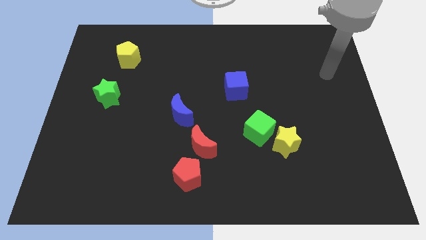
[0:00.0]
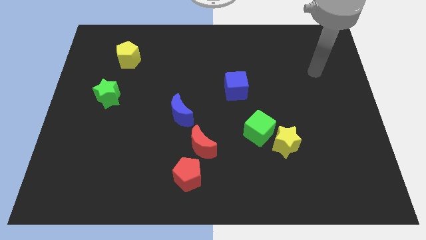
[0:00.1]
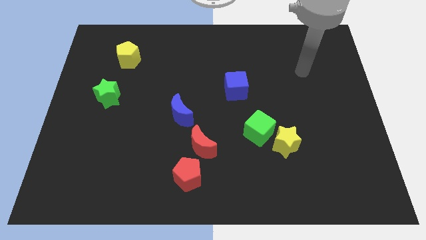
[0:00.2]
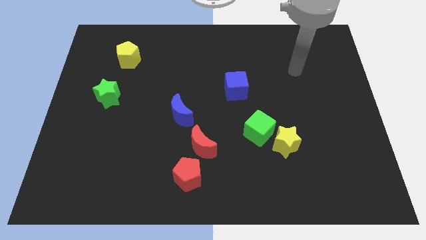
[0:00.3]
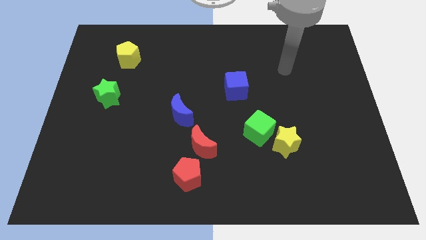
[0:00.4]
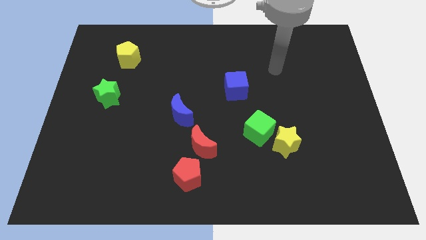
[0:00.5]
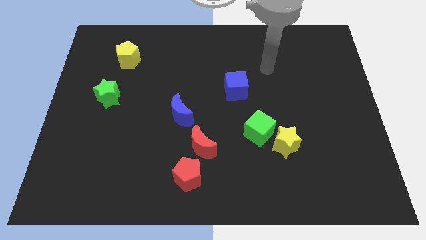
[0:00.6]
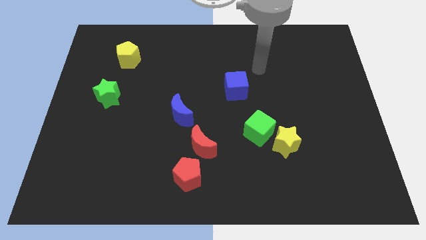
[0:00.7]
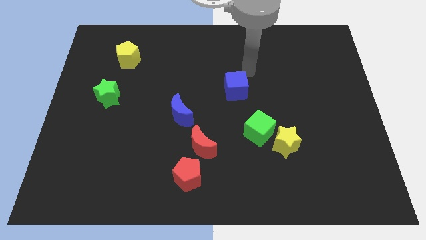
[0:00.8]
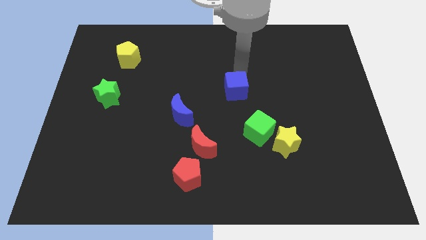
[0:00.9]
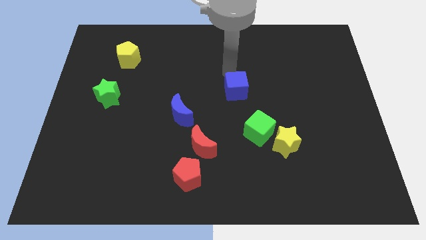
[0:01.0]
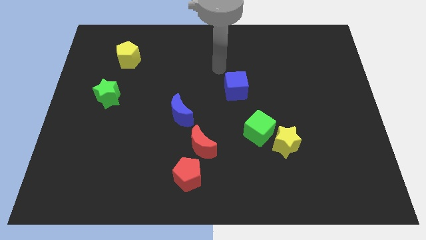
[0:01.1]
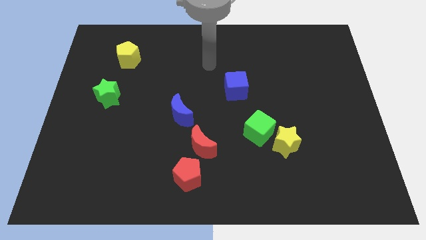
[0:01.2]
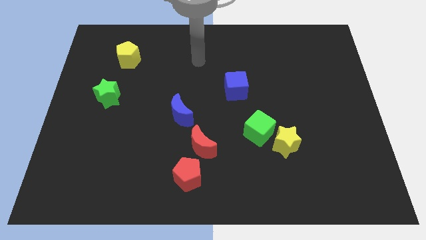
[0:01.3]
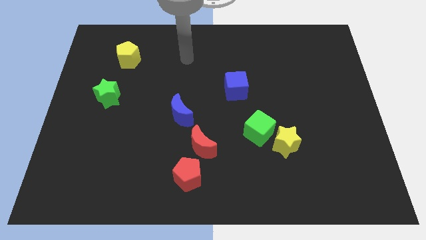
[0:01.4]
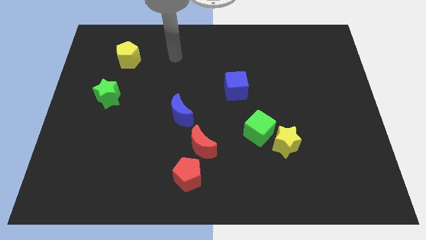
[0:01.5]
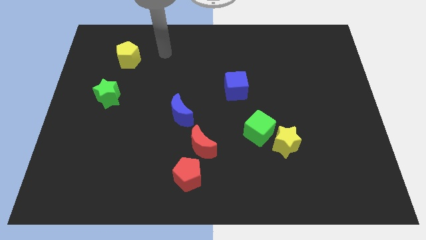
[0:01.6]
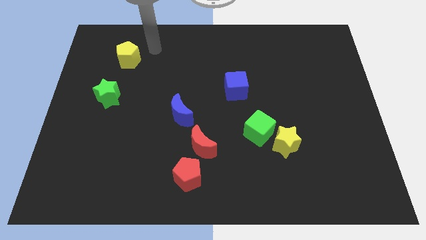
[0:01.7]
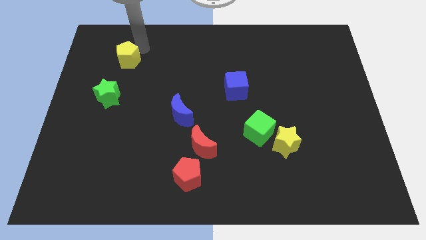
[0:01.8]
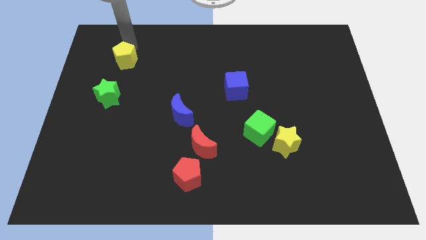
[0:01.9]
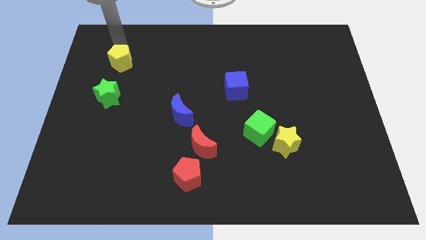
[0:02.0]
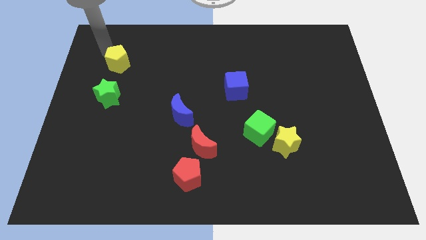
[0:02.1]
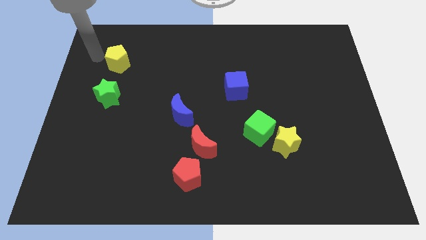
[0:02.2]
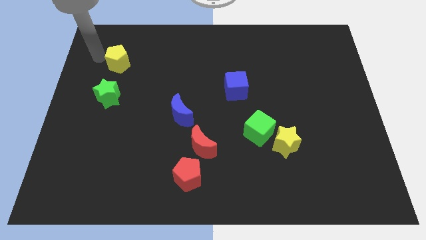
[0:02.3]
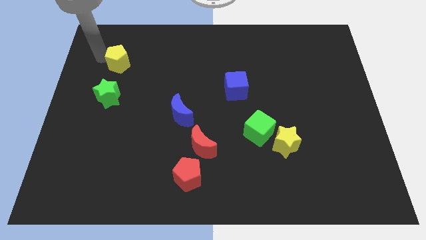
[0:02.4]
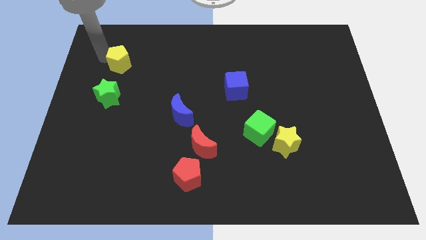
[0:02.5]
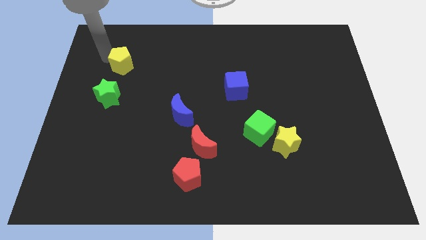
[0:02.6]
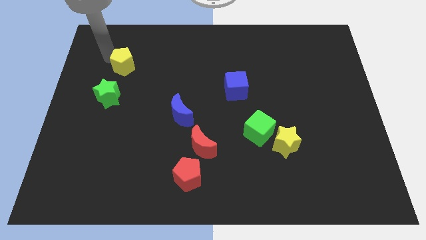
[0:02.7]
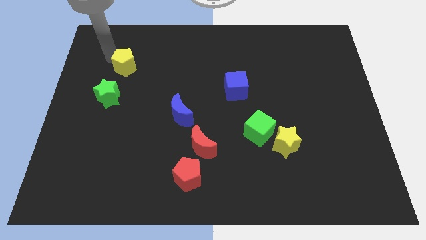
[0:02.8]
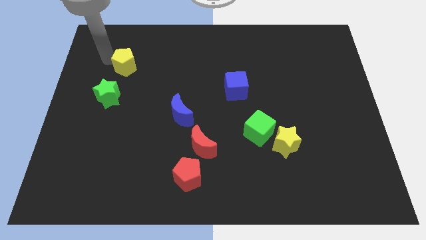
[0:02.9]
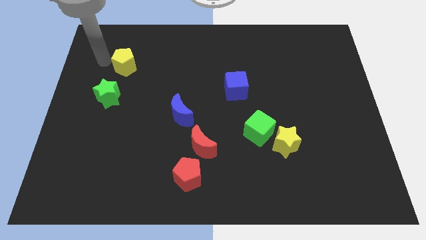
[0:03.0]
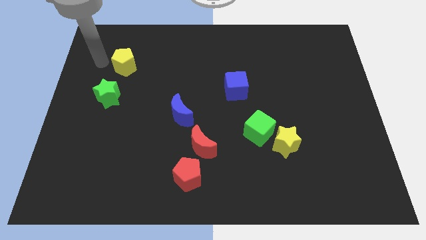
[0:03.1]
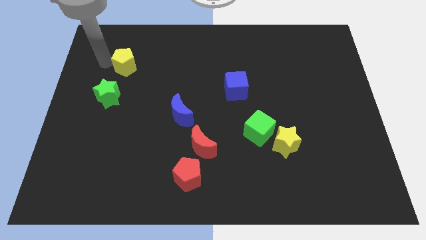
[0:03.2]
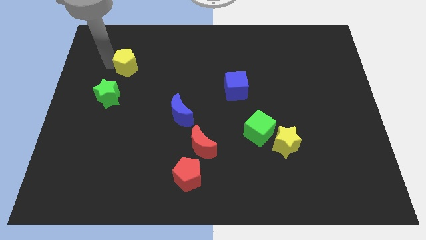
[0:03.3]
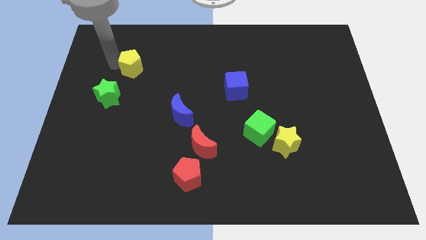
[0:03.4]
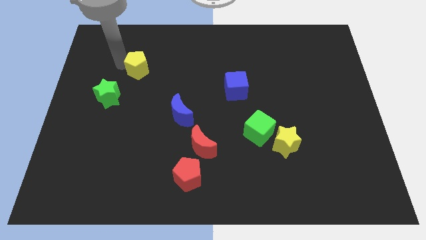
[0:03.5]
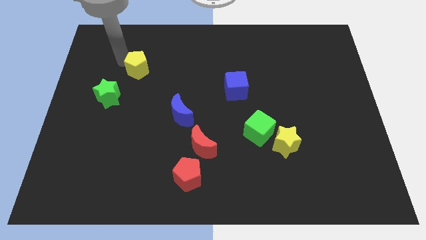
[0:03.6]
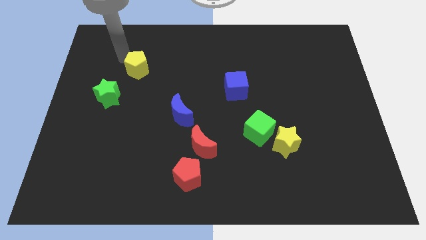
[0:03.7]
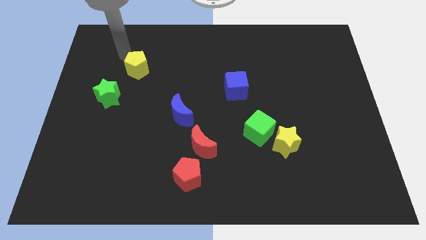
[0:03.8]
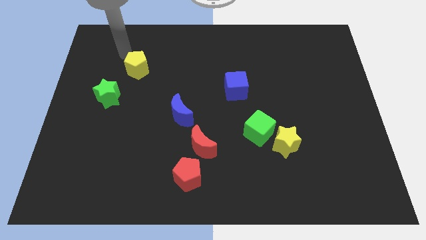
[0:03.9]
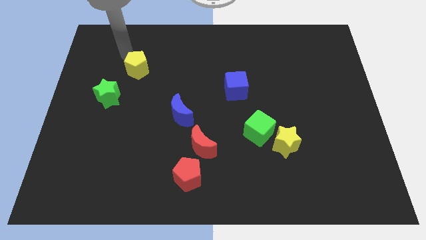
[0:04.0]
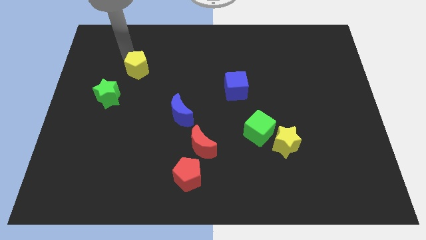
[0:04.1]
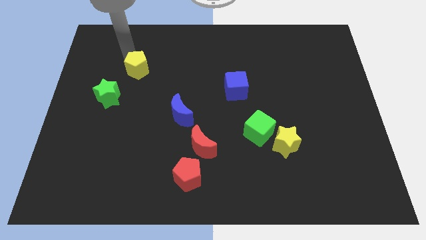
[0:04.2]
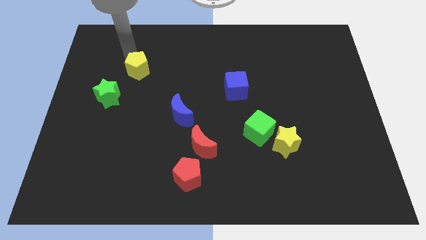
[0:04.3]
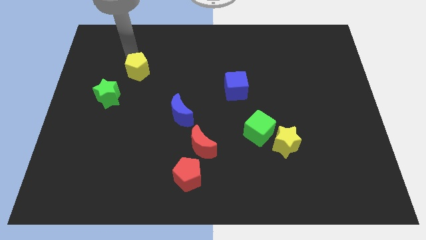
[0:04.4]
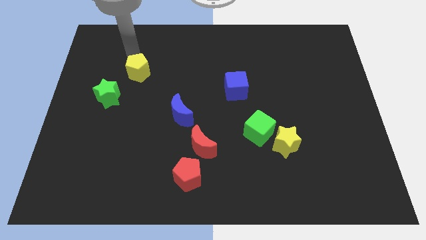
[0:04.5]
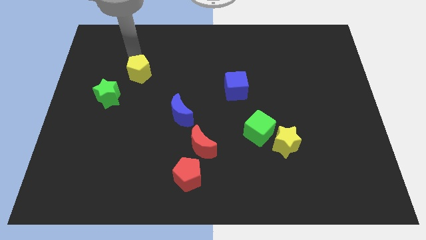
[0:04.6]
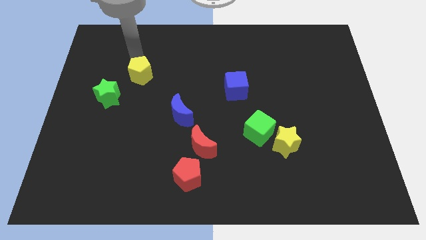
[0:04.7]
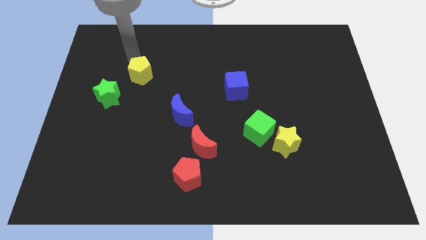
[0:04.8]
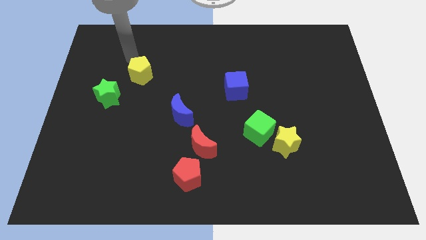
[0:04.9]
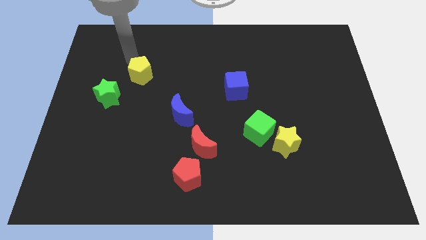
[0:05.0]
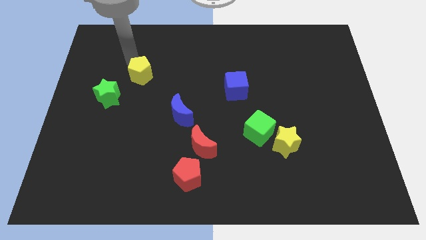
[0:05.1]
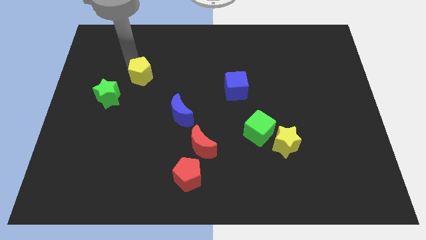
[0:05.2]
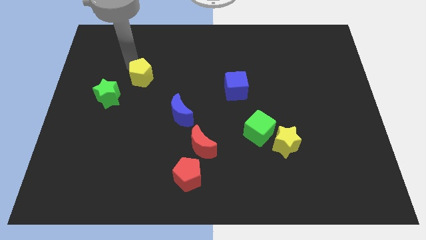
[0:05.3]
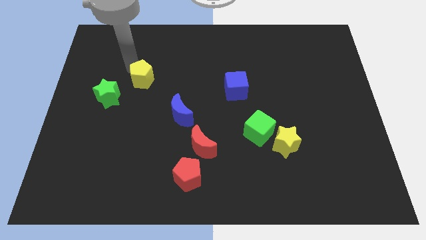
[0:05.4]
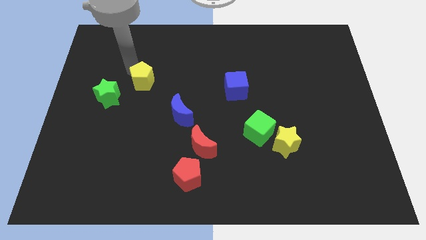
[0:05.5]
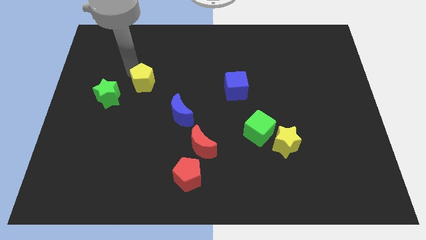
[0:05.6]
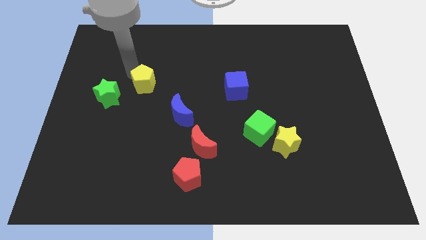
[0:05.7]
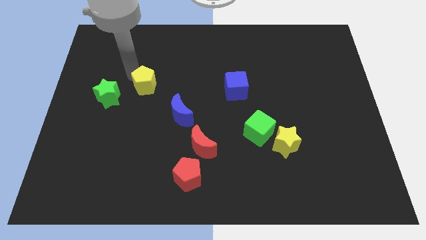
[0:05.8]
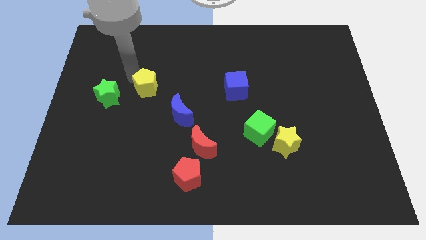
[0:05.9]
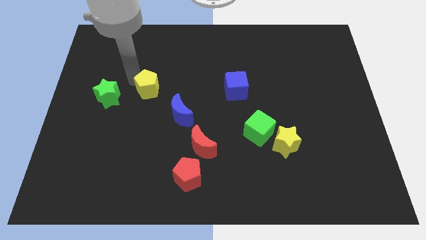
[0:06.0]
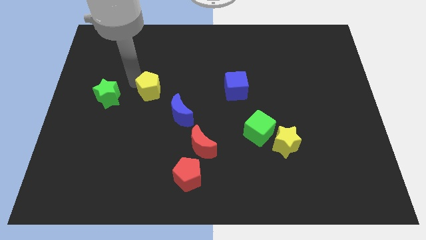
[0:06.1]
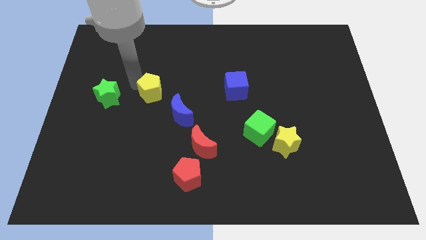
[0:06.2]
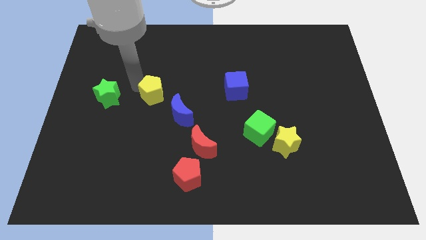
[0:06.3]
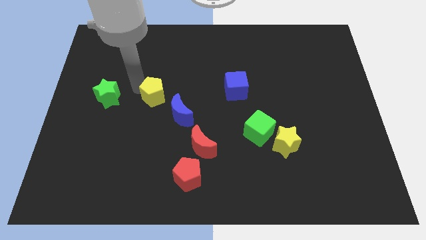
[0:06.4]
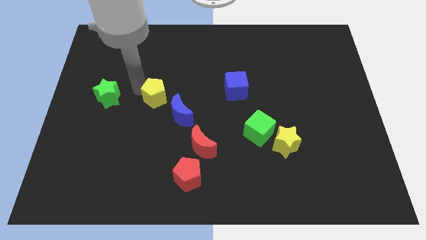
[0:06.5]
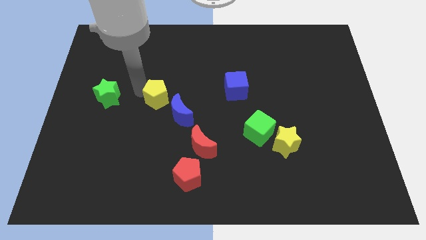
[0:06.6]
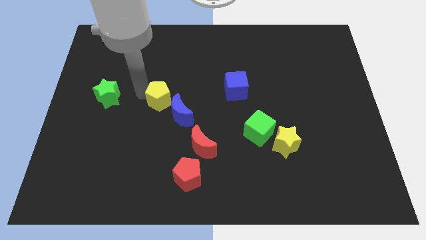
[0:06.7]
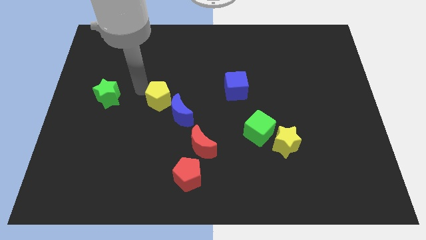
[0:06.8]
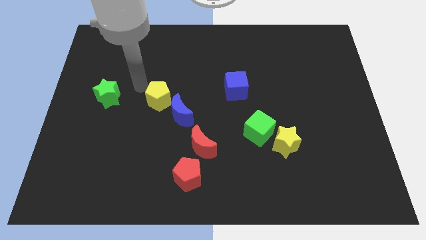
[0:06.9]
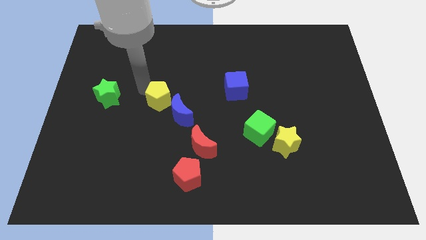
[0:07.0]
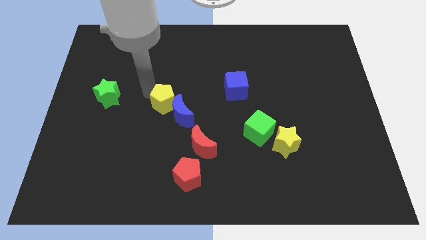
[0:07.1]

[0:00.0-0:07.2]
move the yellow pentagon close to the blue moon

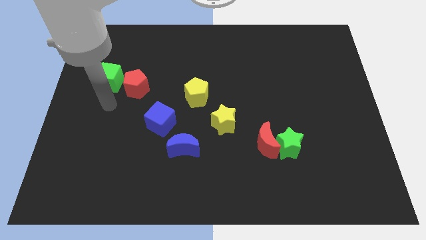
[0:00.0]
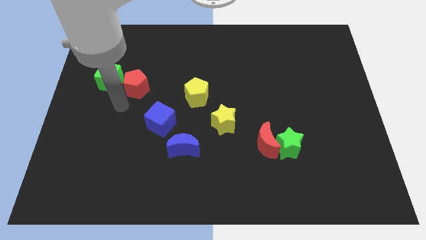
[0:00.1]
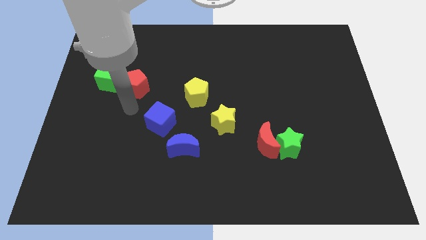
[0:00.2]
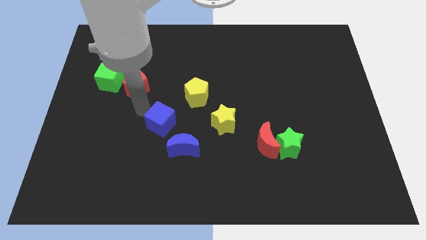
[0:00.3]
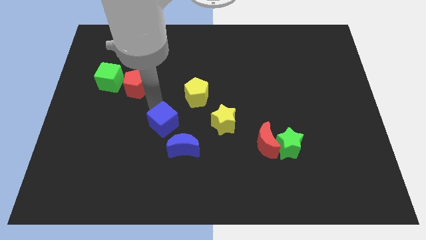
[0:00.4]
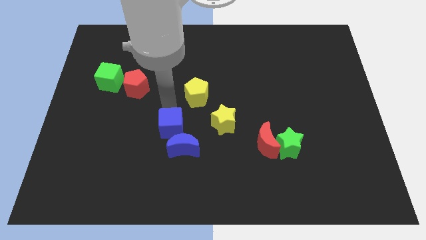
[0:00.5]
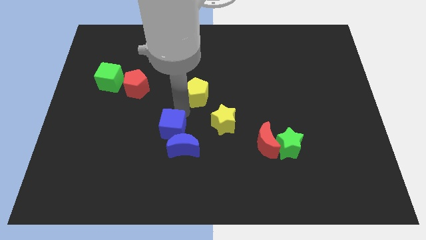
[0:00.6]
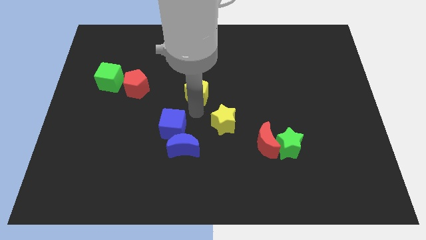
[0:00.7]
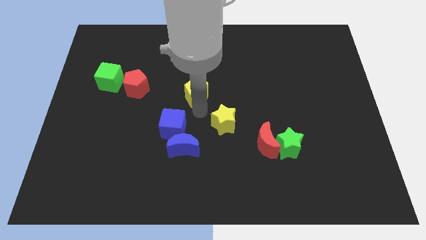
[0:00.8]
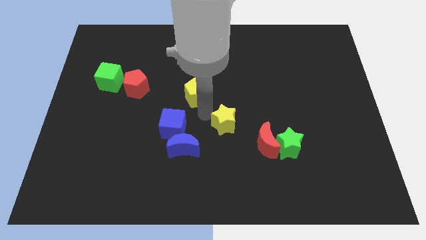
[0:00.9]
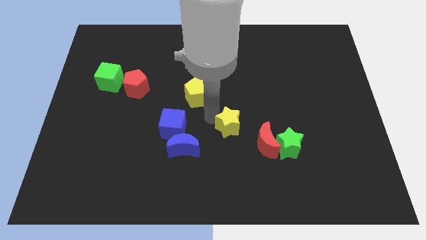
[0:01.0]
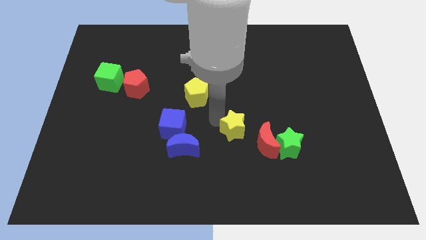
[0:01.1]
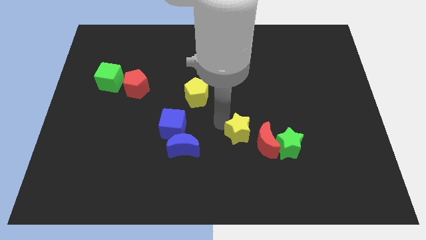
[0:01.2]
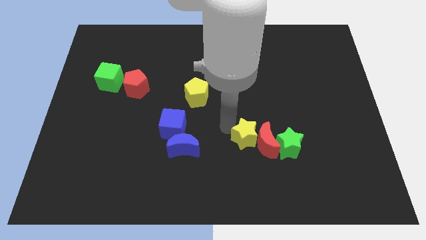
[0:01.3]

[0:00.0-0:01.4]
move the yellow star next to the red moon
